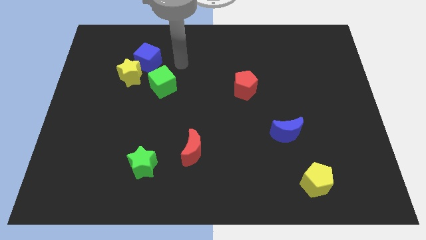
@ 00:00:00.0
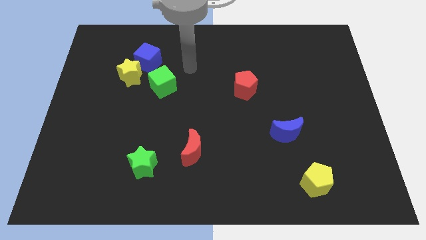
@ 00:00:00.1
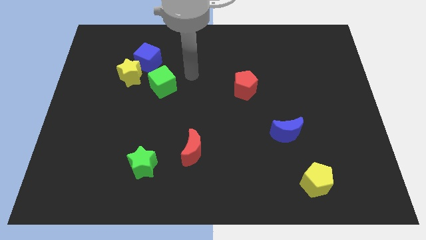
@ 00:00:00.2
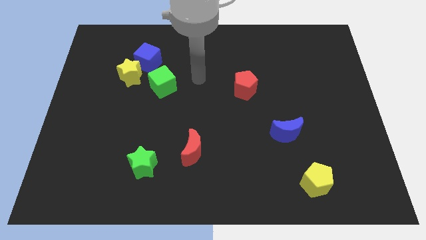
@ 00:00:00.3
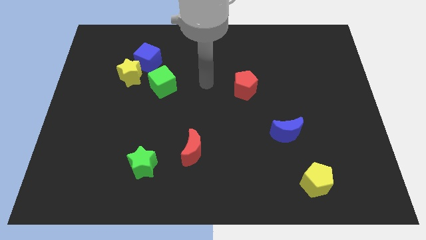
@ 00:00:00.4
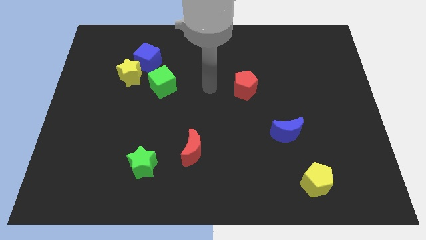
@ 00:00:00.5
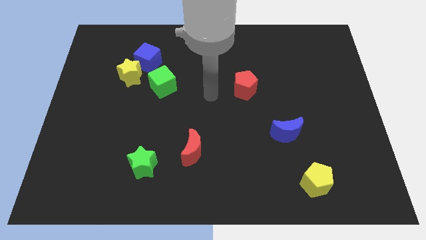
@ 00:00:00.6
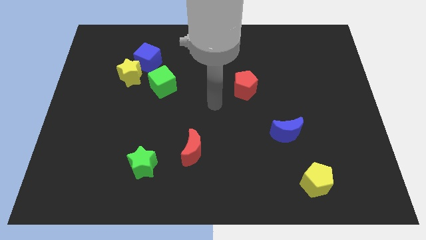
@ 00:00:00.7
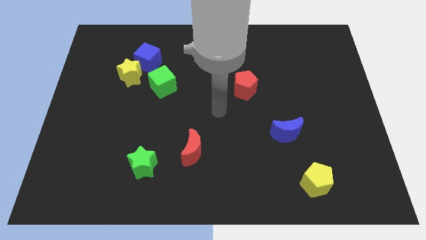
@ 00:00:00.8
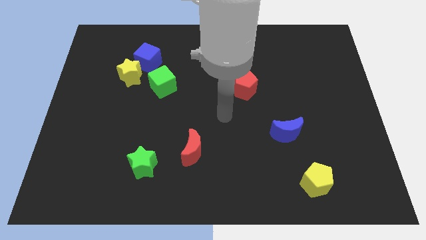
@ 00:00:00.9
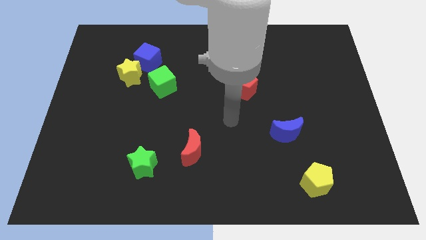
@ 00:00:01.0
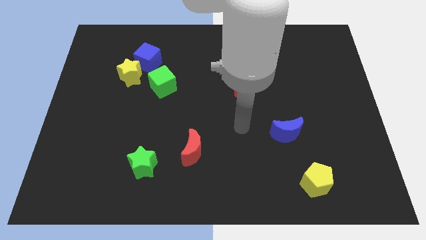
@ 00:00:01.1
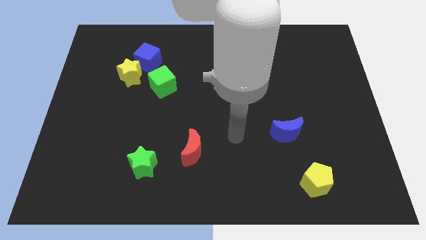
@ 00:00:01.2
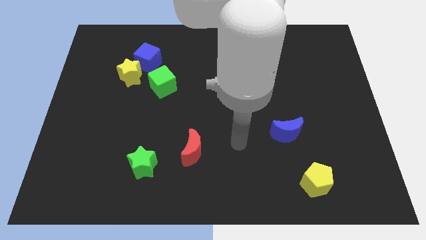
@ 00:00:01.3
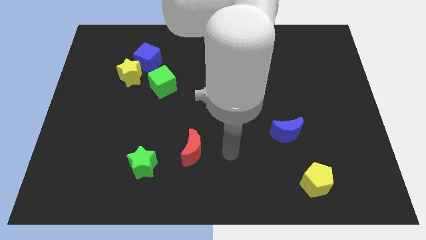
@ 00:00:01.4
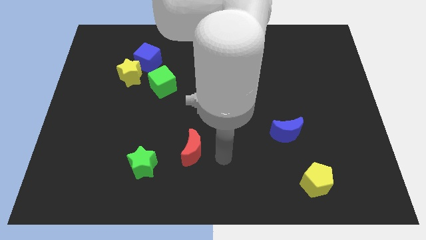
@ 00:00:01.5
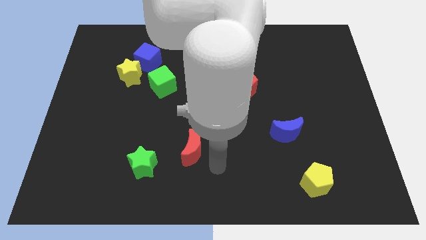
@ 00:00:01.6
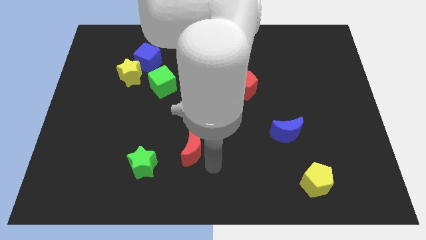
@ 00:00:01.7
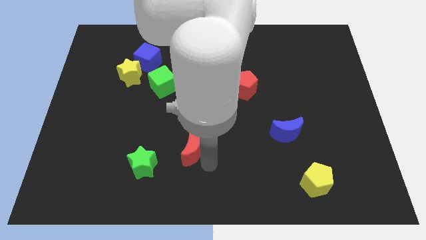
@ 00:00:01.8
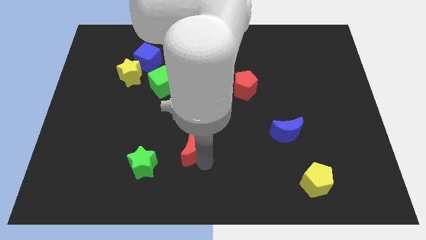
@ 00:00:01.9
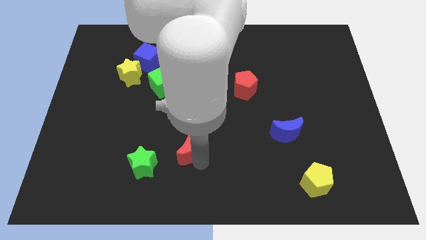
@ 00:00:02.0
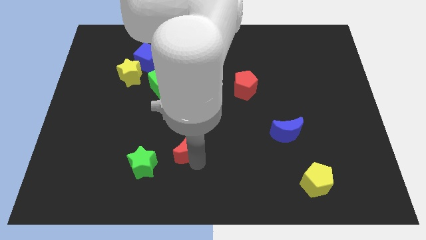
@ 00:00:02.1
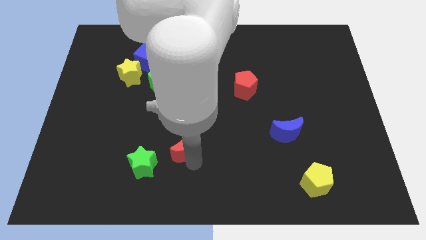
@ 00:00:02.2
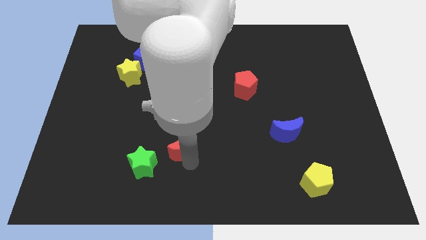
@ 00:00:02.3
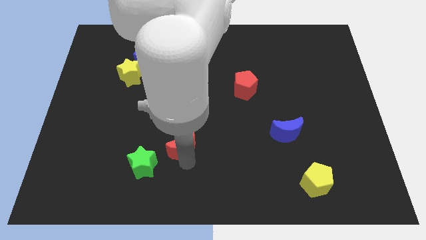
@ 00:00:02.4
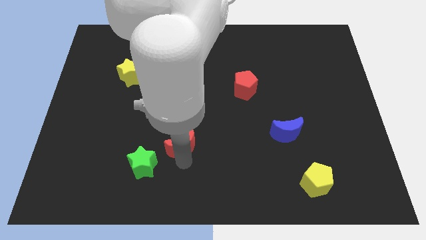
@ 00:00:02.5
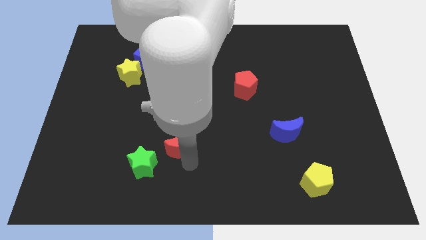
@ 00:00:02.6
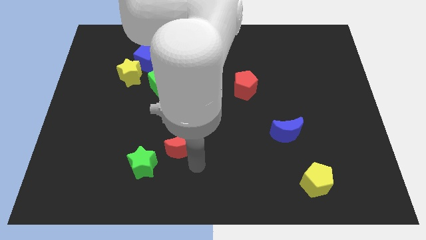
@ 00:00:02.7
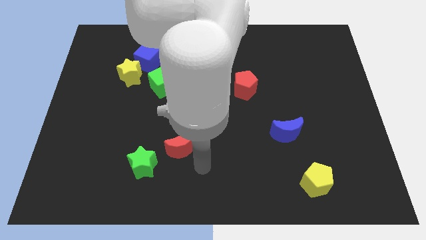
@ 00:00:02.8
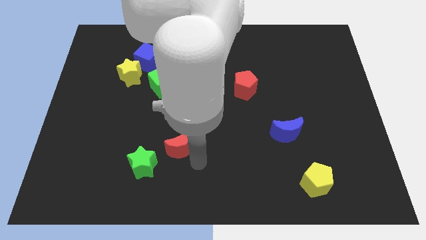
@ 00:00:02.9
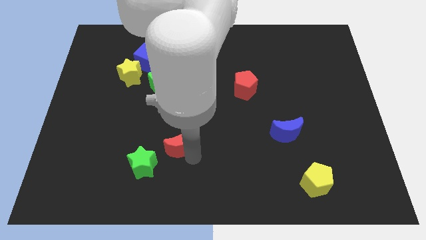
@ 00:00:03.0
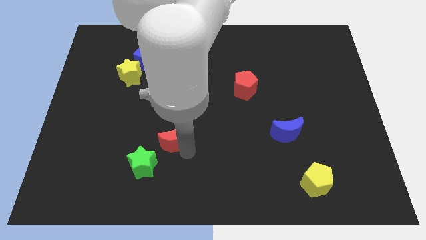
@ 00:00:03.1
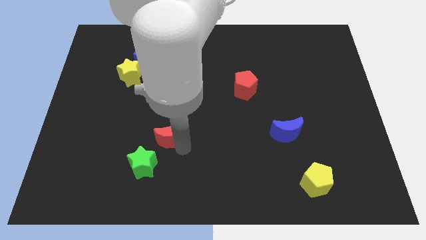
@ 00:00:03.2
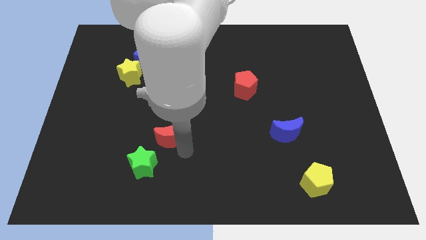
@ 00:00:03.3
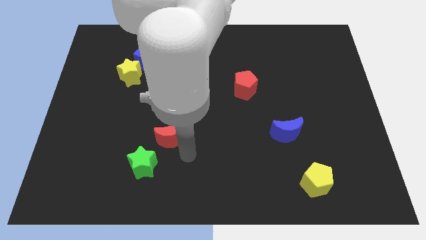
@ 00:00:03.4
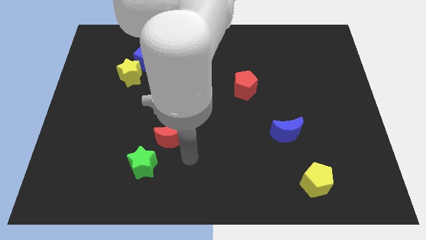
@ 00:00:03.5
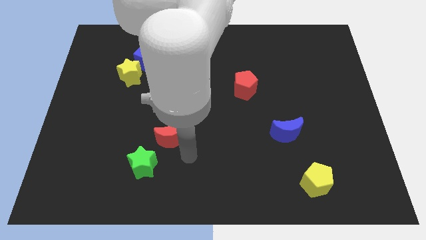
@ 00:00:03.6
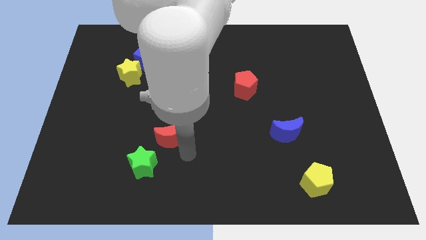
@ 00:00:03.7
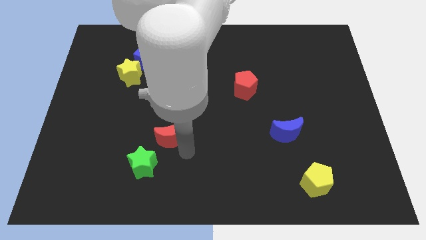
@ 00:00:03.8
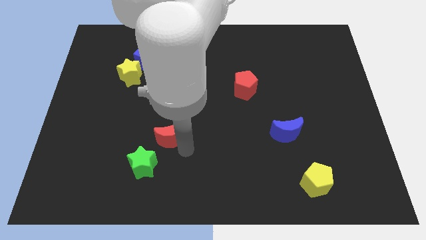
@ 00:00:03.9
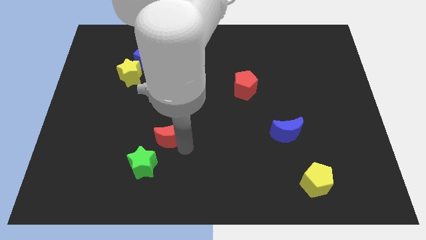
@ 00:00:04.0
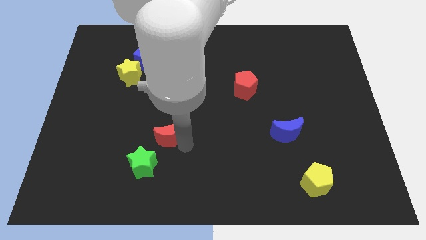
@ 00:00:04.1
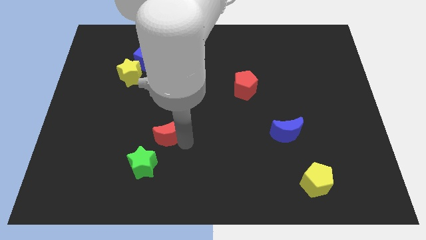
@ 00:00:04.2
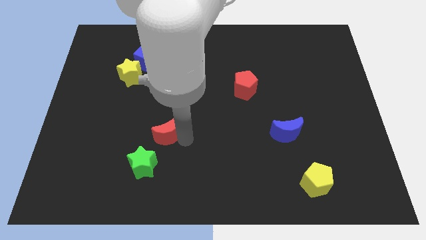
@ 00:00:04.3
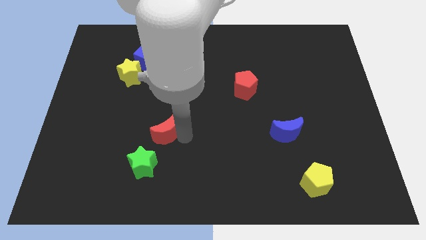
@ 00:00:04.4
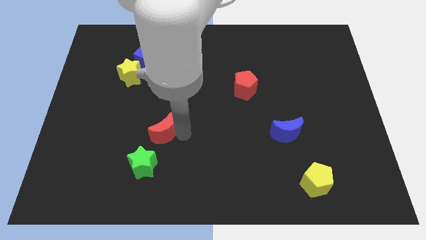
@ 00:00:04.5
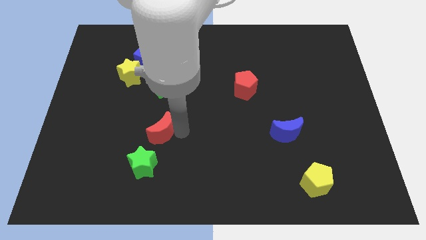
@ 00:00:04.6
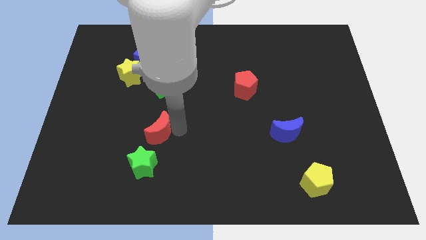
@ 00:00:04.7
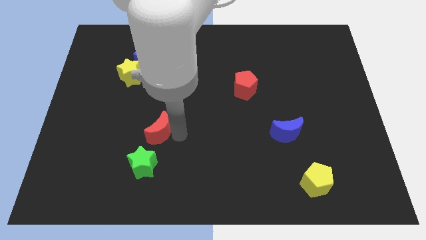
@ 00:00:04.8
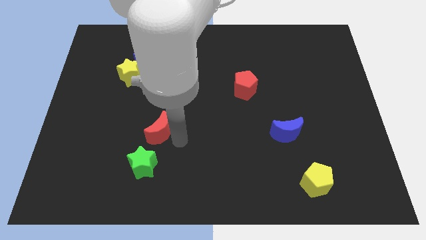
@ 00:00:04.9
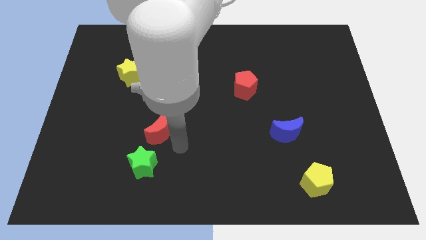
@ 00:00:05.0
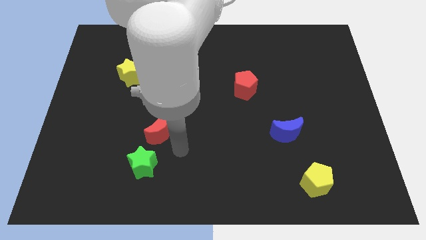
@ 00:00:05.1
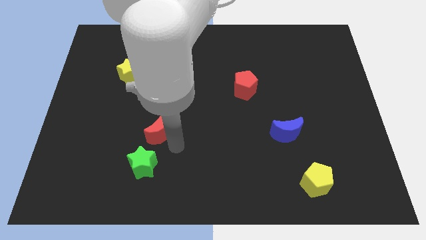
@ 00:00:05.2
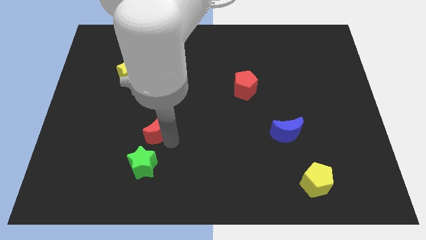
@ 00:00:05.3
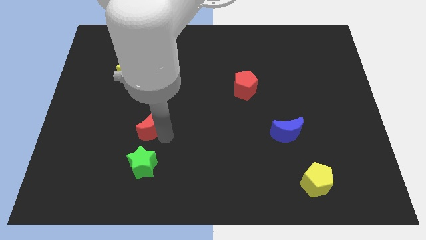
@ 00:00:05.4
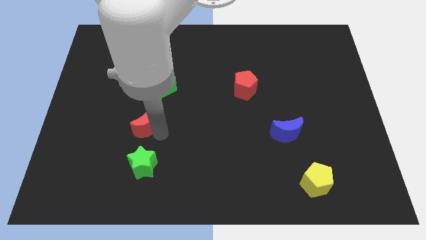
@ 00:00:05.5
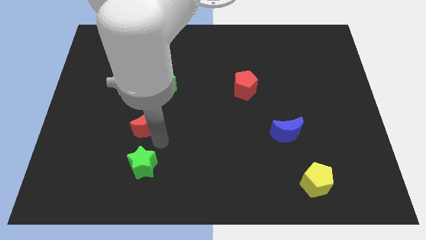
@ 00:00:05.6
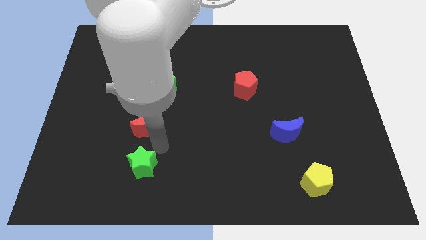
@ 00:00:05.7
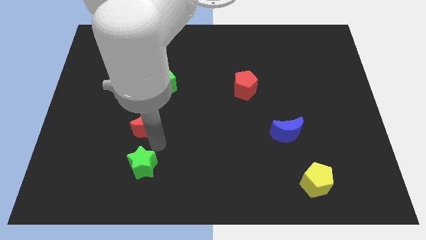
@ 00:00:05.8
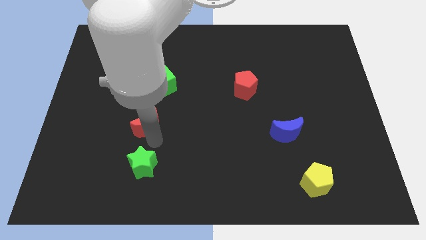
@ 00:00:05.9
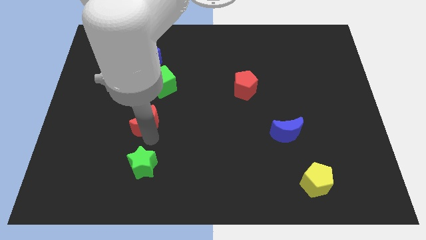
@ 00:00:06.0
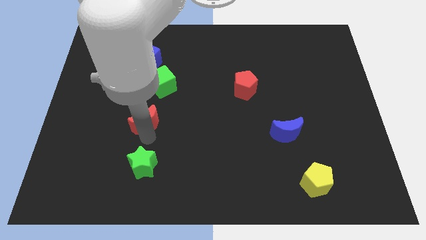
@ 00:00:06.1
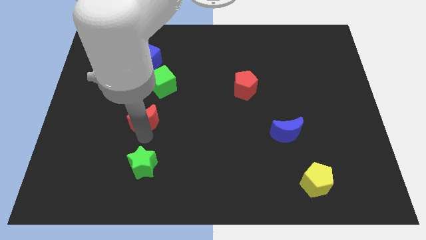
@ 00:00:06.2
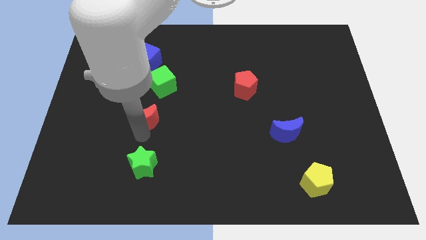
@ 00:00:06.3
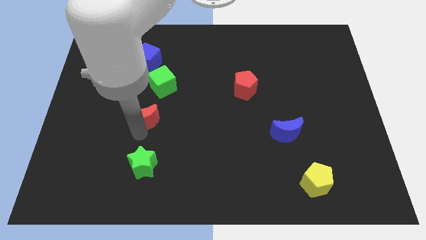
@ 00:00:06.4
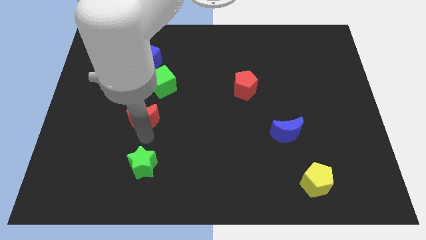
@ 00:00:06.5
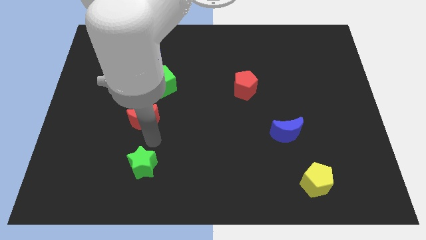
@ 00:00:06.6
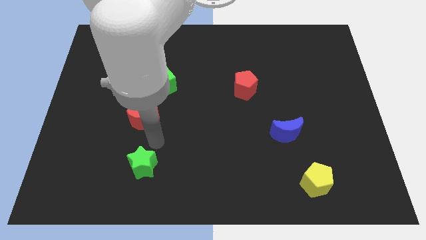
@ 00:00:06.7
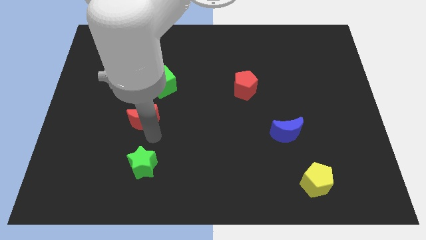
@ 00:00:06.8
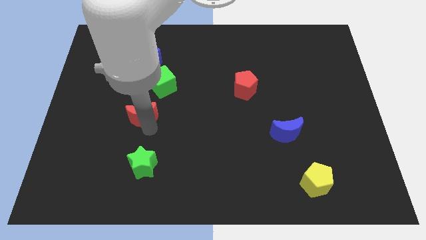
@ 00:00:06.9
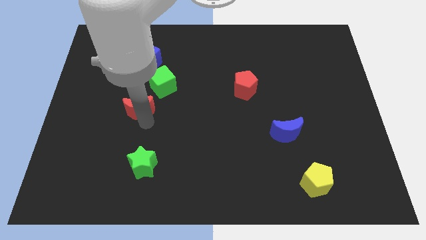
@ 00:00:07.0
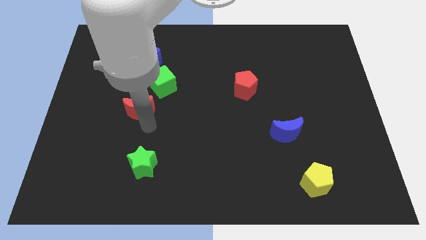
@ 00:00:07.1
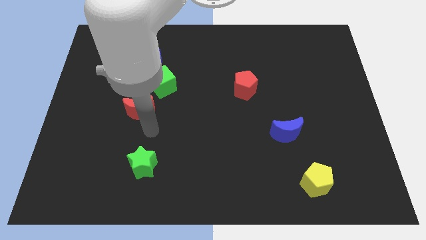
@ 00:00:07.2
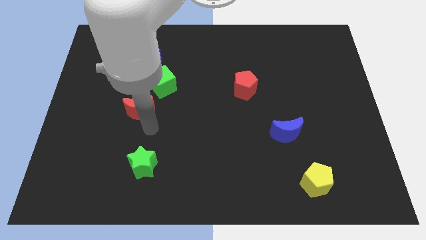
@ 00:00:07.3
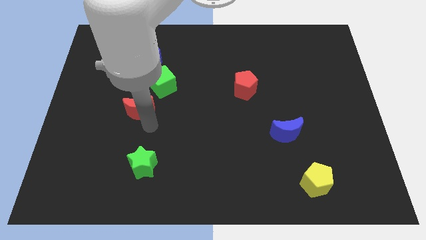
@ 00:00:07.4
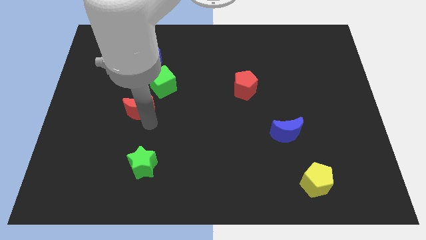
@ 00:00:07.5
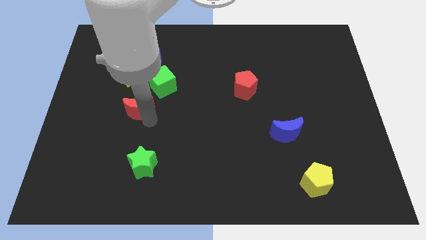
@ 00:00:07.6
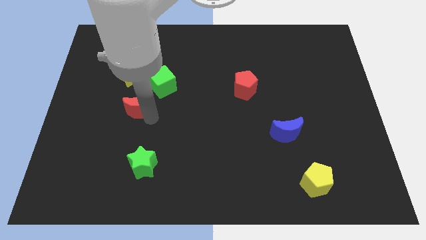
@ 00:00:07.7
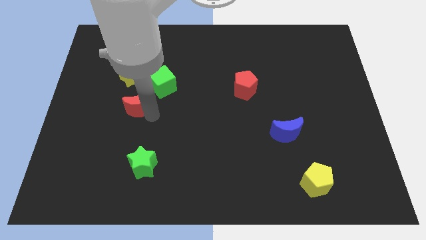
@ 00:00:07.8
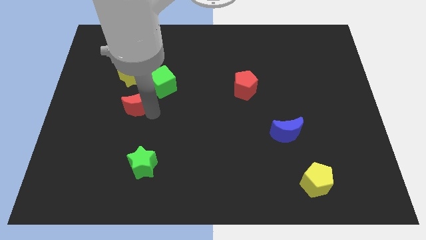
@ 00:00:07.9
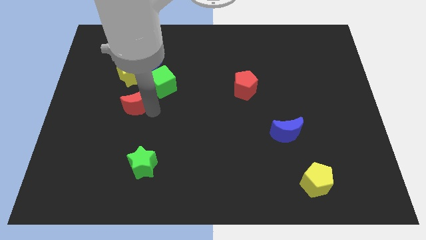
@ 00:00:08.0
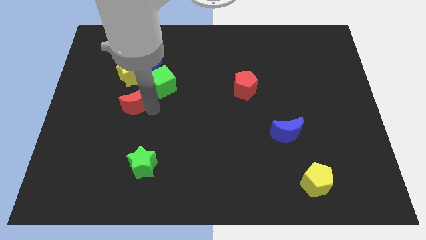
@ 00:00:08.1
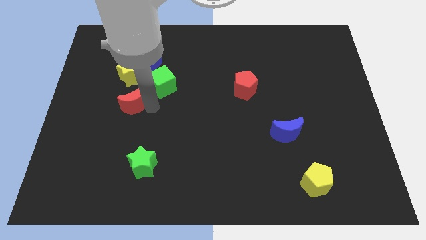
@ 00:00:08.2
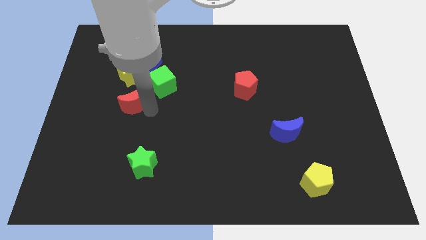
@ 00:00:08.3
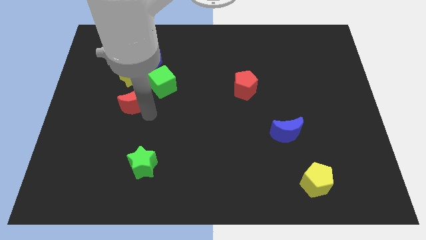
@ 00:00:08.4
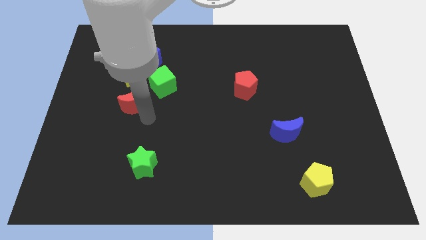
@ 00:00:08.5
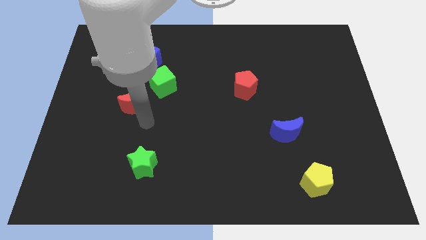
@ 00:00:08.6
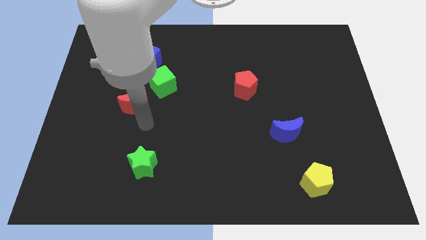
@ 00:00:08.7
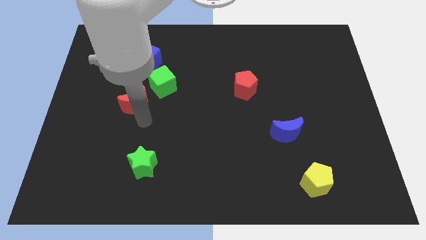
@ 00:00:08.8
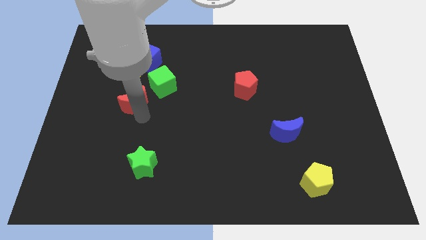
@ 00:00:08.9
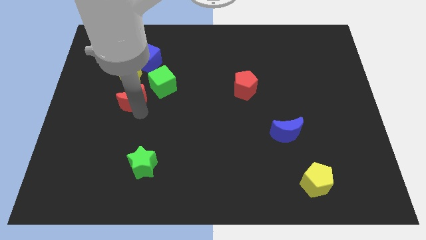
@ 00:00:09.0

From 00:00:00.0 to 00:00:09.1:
move the red moon upwards and left diagonally
